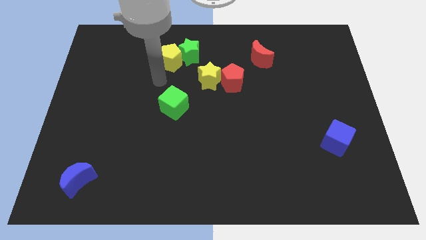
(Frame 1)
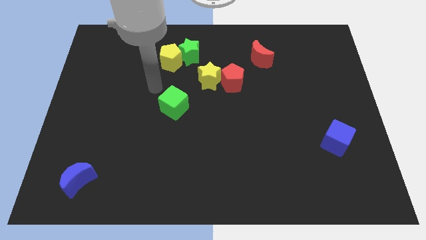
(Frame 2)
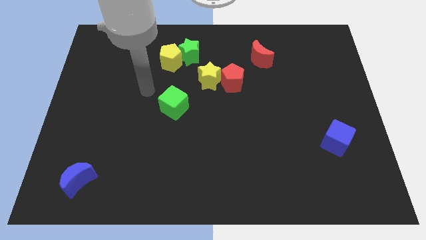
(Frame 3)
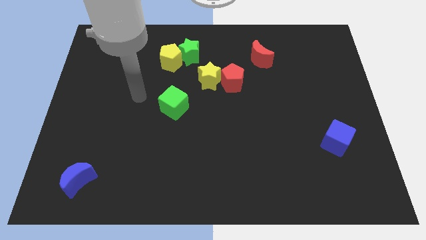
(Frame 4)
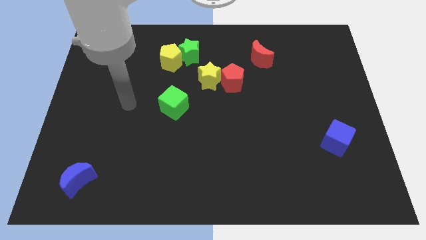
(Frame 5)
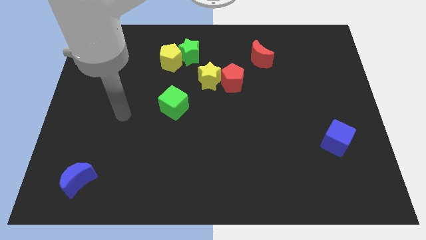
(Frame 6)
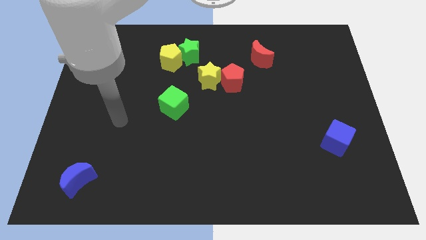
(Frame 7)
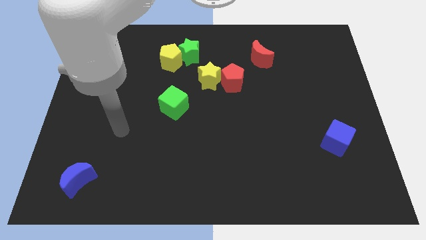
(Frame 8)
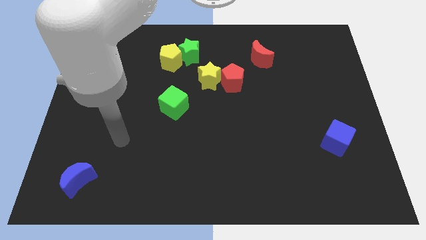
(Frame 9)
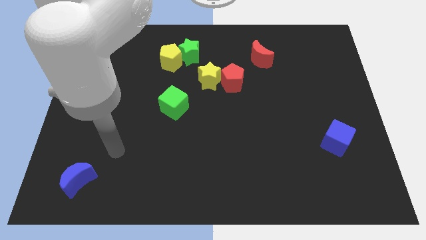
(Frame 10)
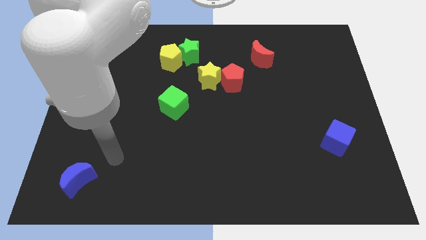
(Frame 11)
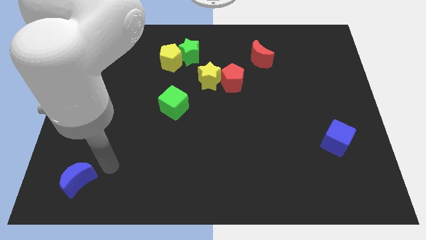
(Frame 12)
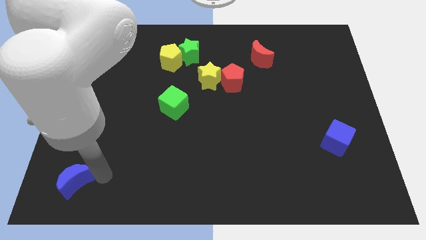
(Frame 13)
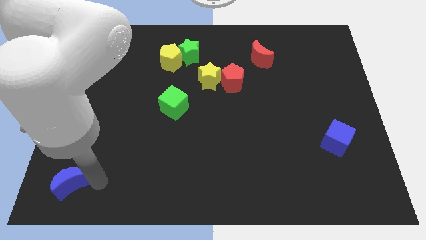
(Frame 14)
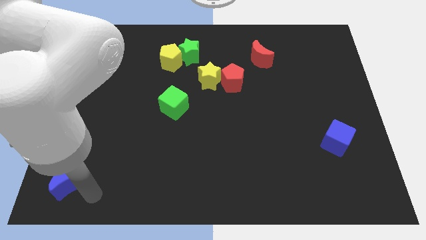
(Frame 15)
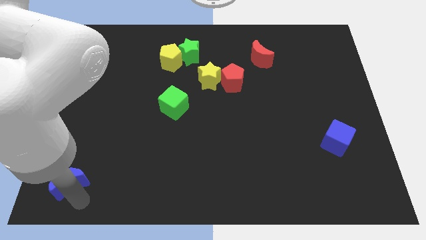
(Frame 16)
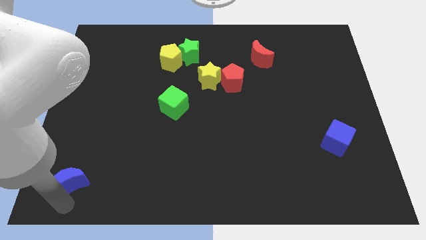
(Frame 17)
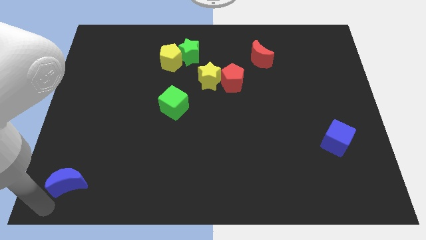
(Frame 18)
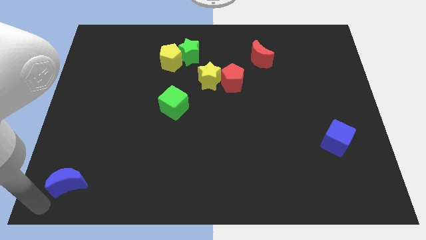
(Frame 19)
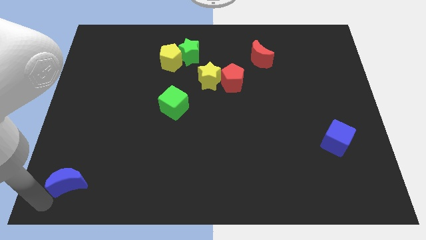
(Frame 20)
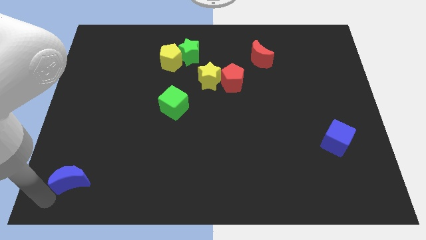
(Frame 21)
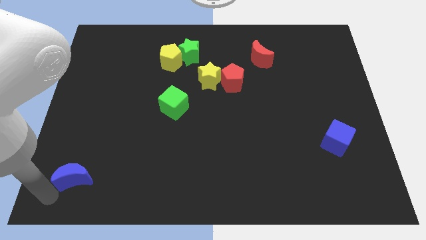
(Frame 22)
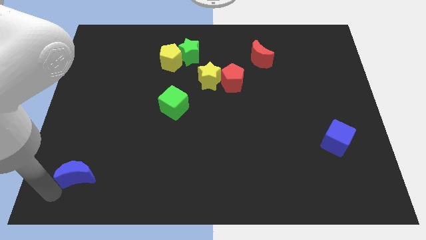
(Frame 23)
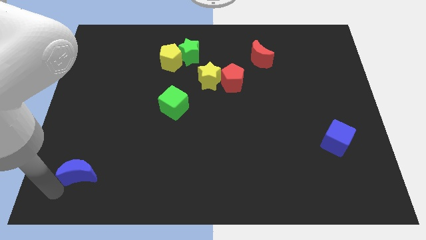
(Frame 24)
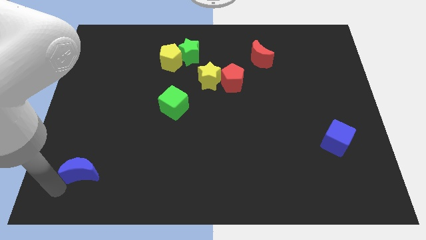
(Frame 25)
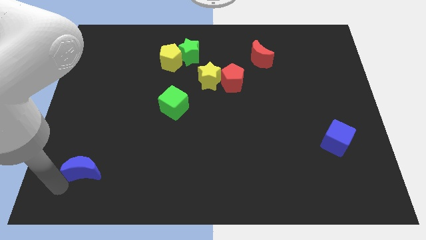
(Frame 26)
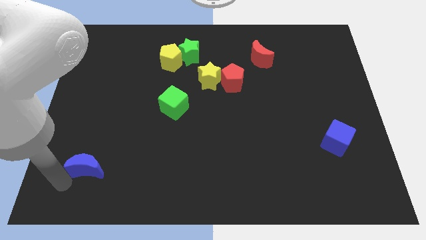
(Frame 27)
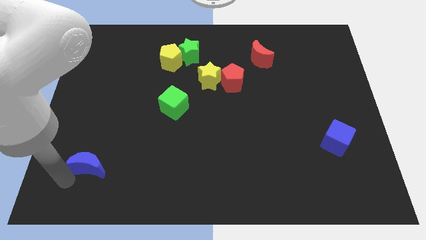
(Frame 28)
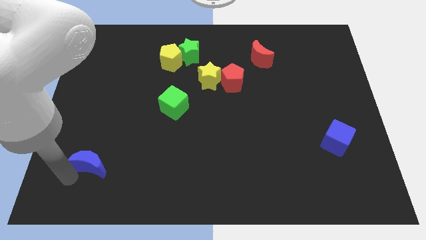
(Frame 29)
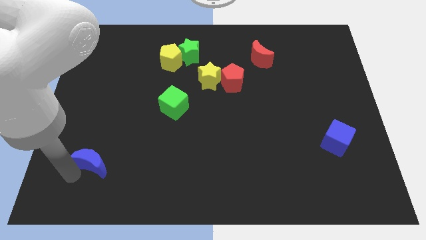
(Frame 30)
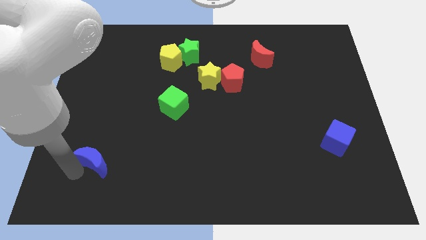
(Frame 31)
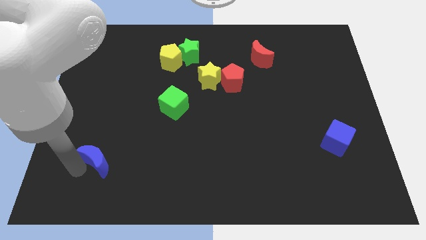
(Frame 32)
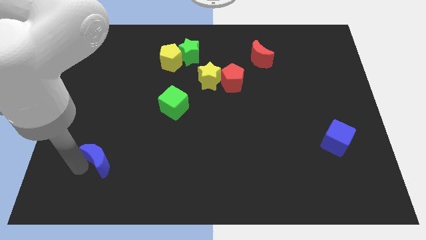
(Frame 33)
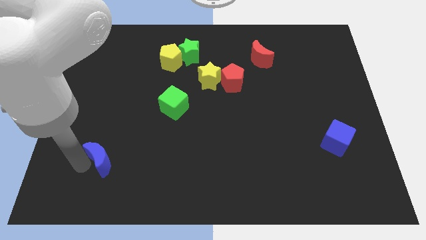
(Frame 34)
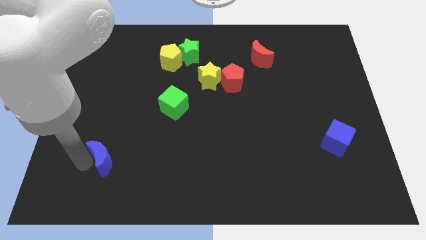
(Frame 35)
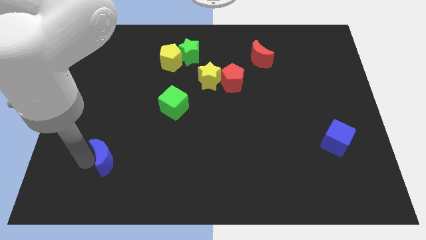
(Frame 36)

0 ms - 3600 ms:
slightly slide the blue moon up and to the right

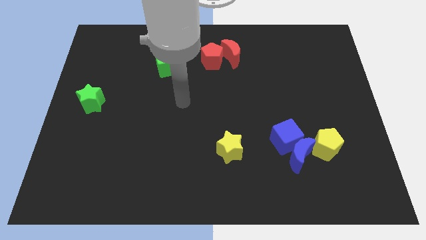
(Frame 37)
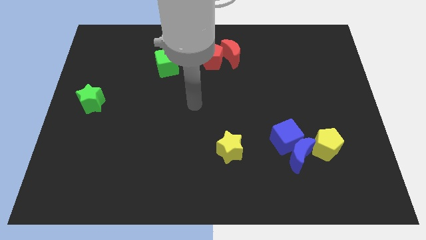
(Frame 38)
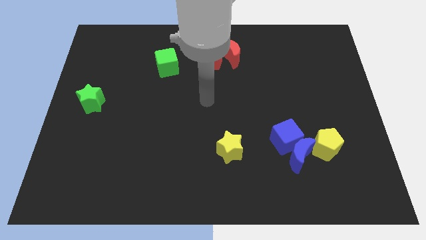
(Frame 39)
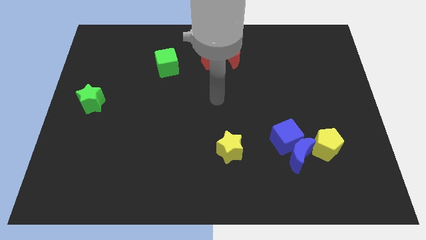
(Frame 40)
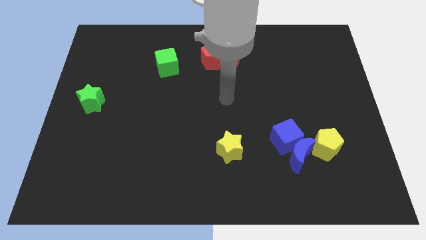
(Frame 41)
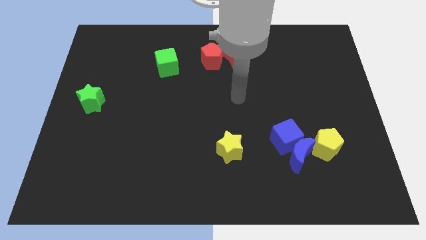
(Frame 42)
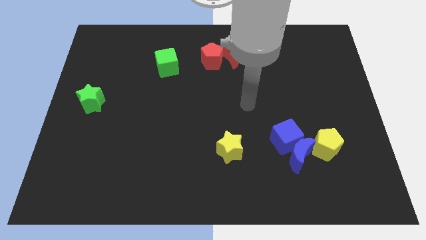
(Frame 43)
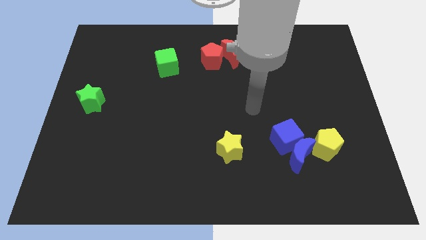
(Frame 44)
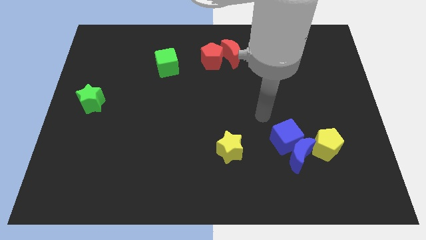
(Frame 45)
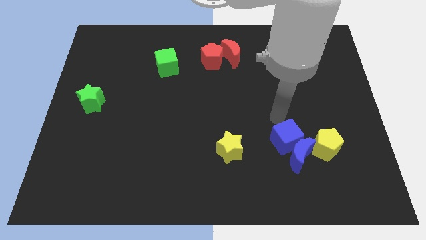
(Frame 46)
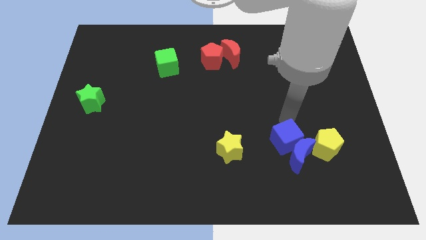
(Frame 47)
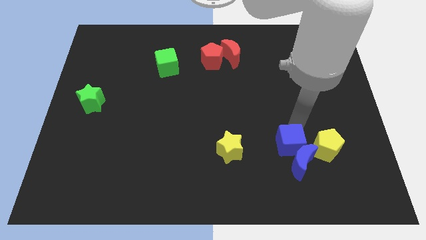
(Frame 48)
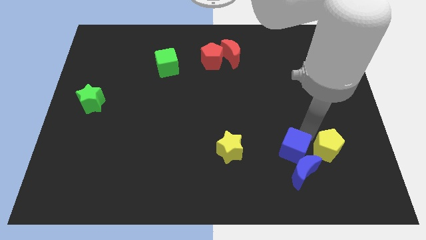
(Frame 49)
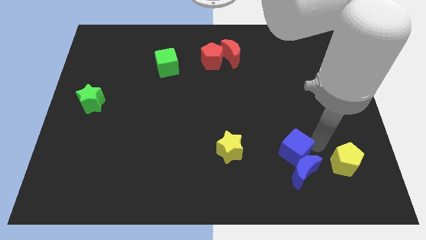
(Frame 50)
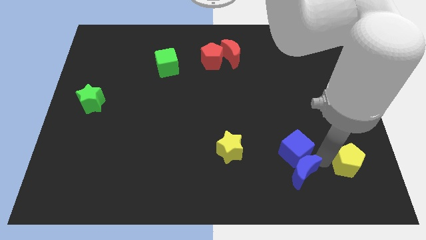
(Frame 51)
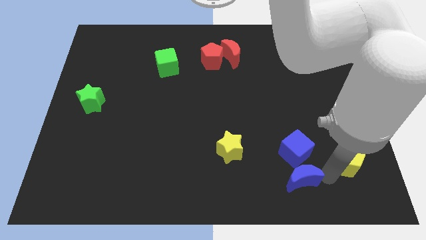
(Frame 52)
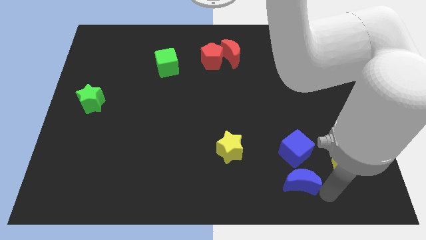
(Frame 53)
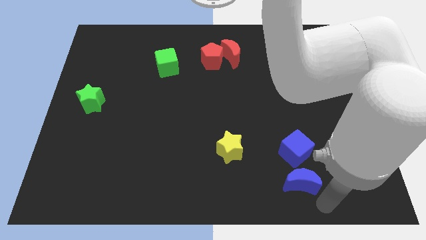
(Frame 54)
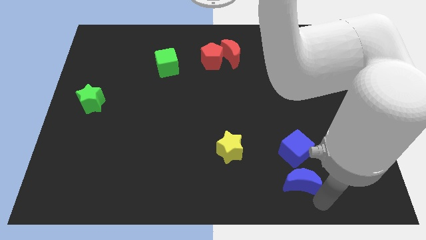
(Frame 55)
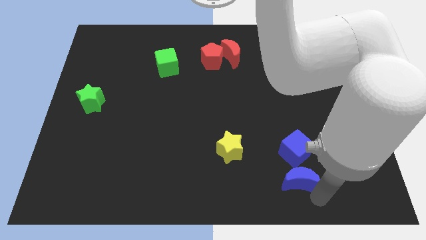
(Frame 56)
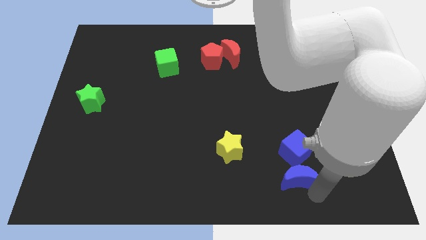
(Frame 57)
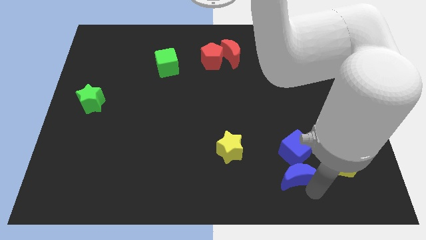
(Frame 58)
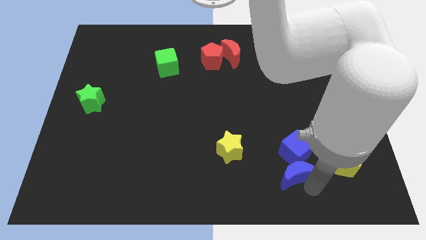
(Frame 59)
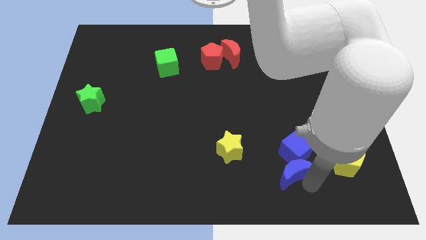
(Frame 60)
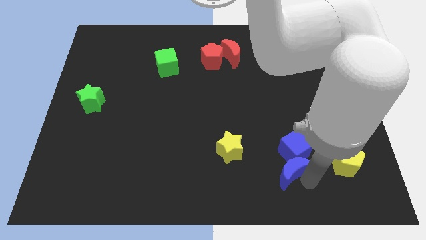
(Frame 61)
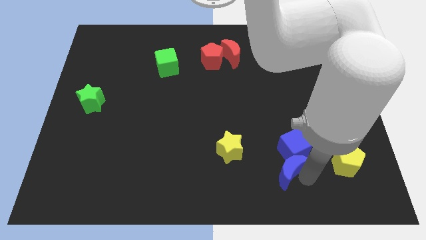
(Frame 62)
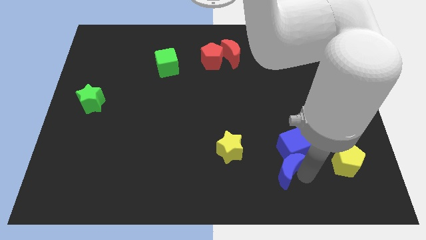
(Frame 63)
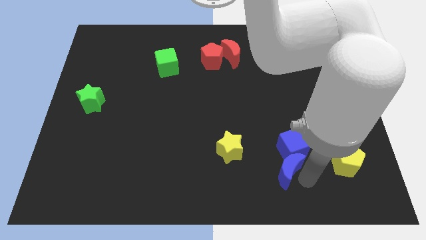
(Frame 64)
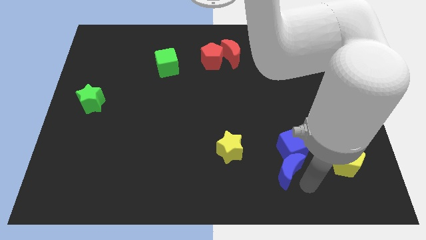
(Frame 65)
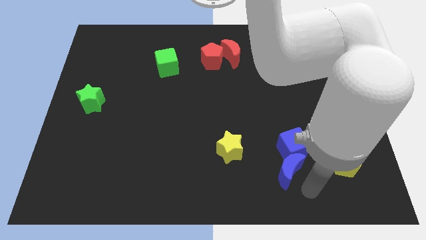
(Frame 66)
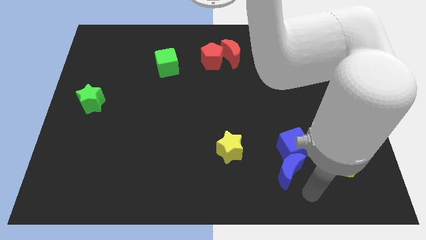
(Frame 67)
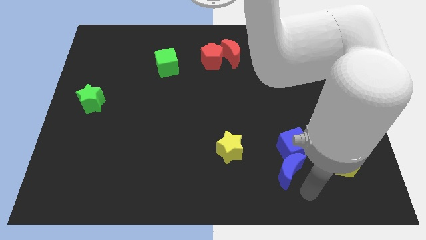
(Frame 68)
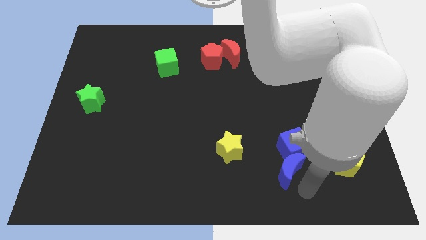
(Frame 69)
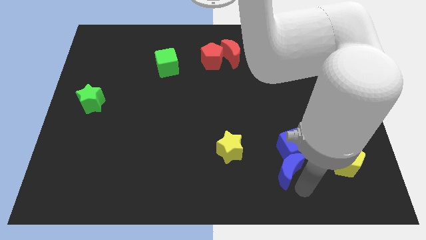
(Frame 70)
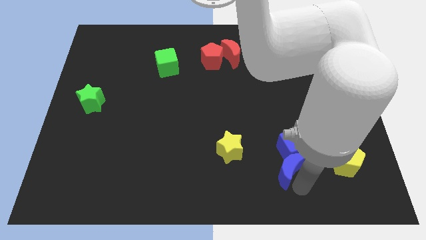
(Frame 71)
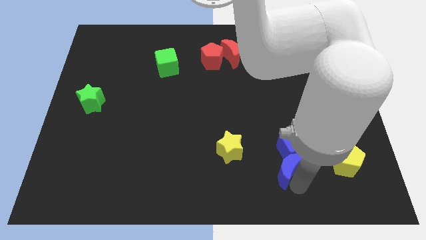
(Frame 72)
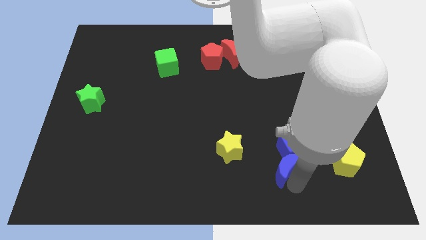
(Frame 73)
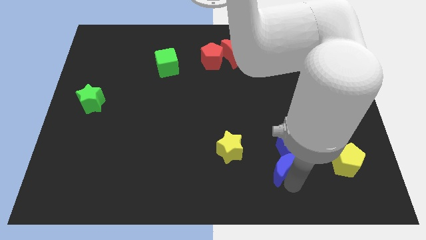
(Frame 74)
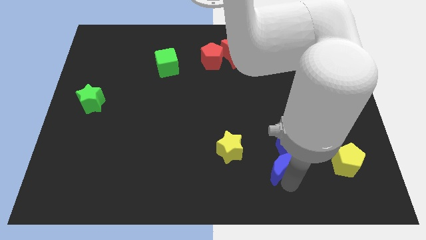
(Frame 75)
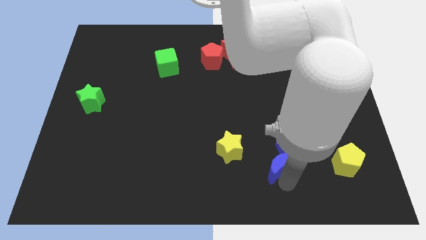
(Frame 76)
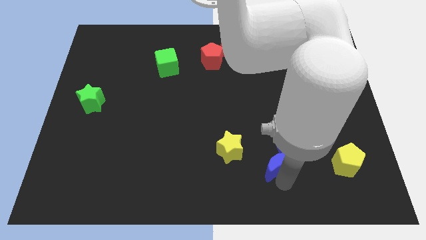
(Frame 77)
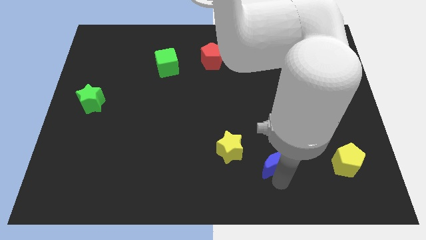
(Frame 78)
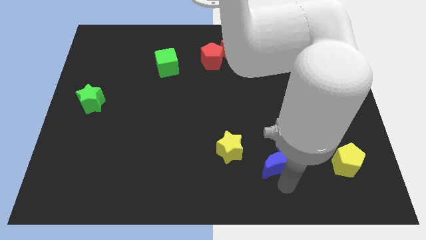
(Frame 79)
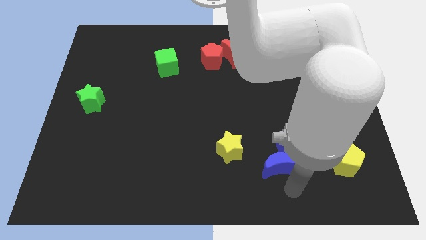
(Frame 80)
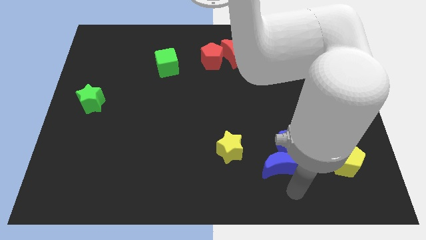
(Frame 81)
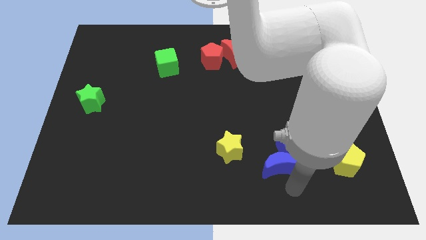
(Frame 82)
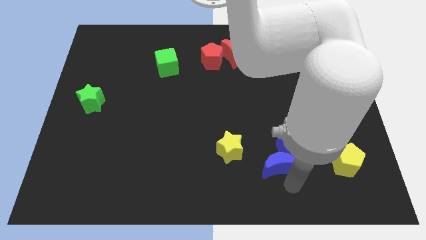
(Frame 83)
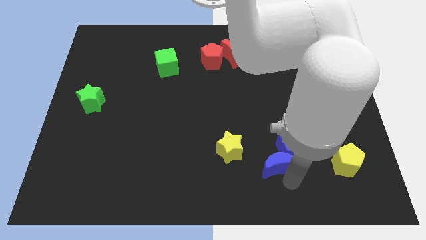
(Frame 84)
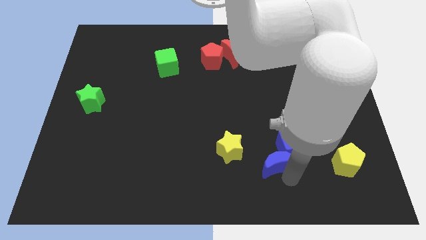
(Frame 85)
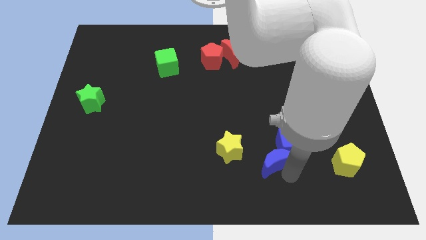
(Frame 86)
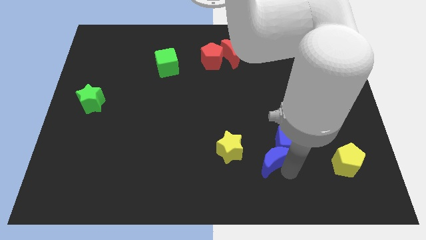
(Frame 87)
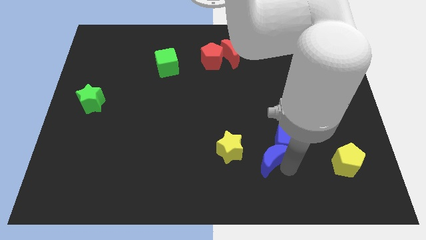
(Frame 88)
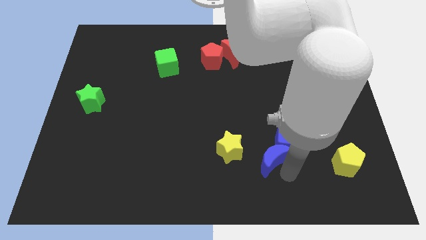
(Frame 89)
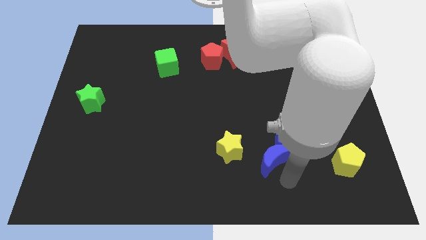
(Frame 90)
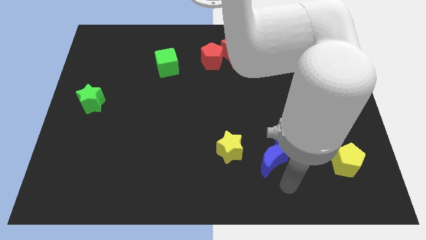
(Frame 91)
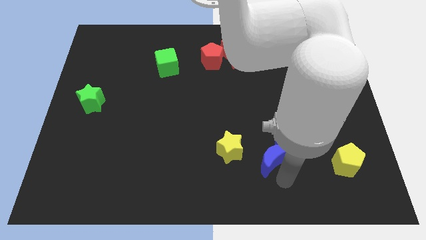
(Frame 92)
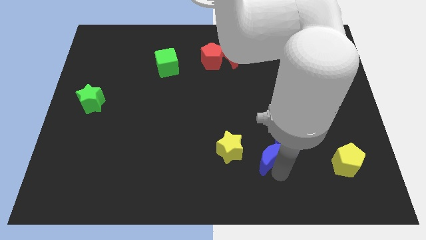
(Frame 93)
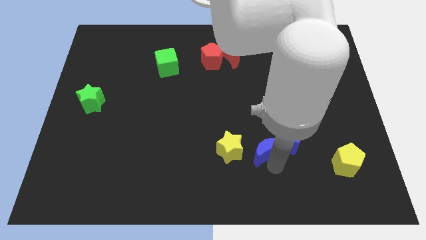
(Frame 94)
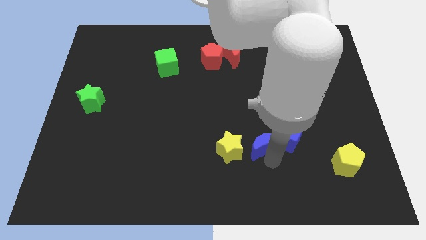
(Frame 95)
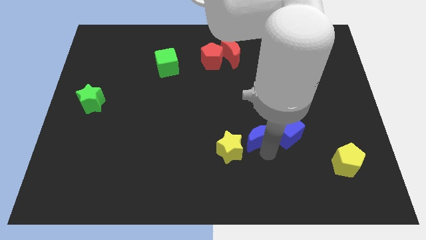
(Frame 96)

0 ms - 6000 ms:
push the blue moon upwards and then left a bit
